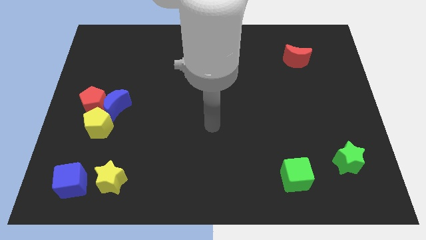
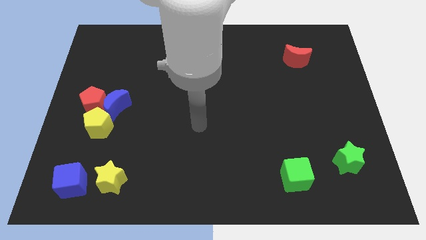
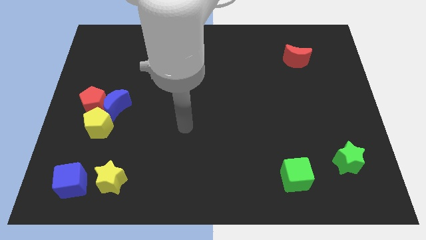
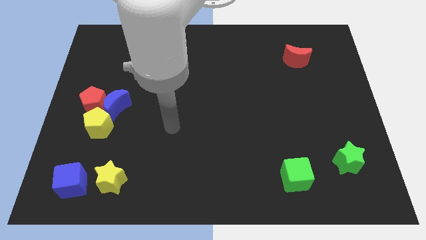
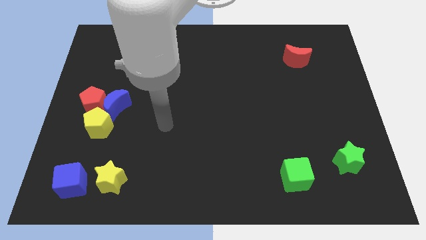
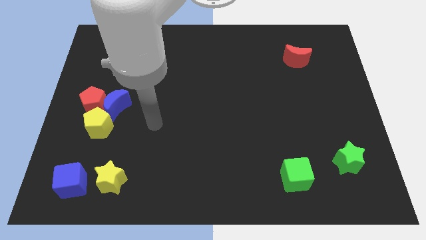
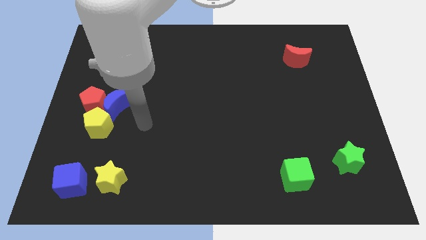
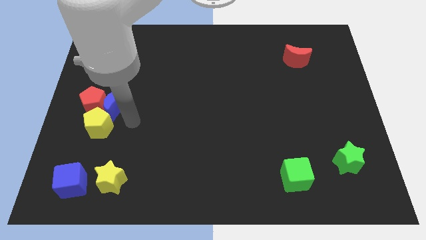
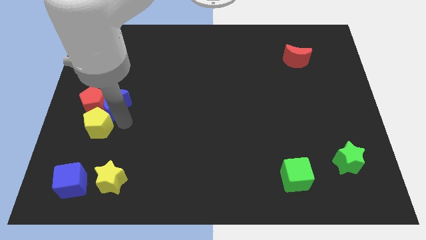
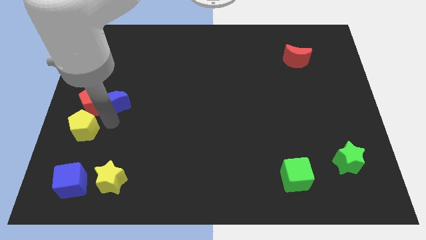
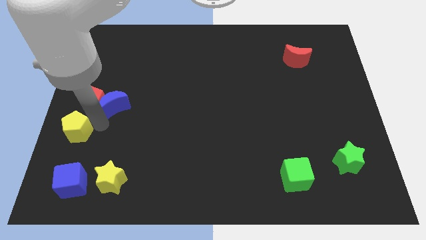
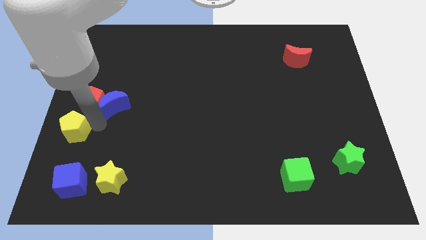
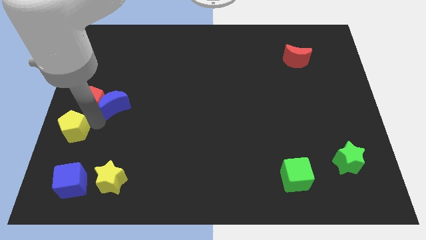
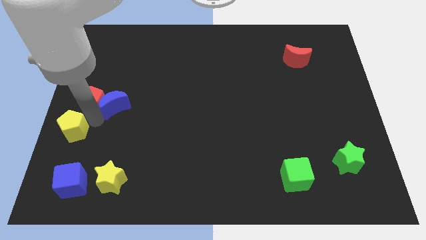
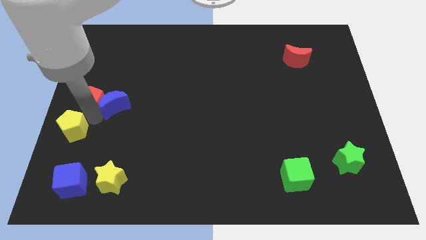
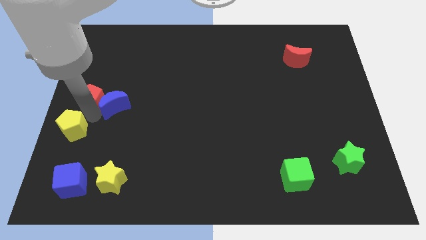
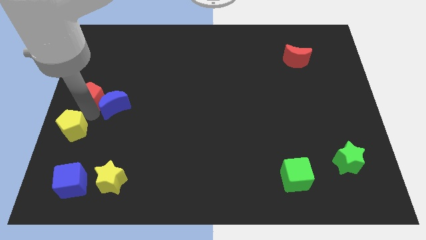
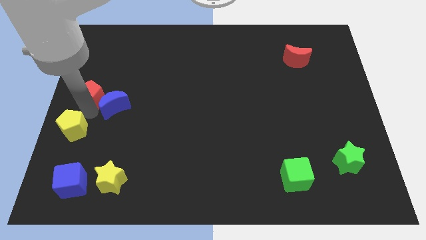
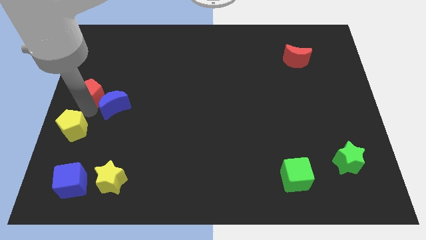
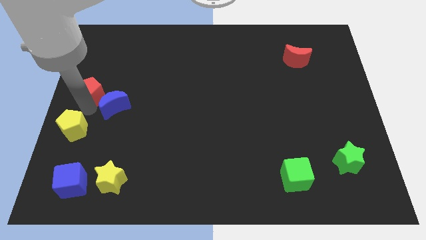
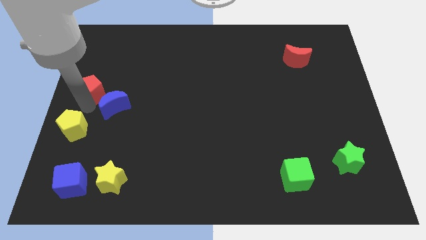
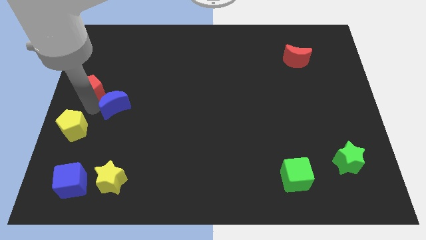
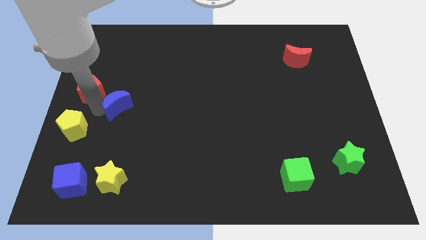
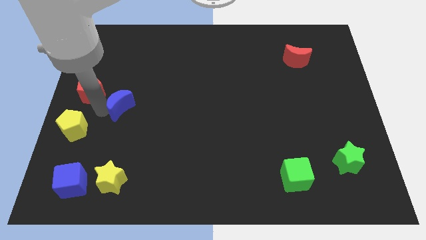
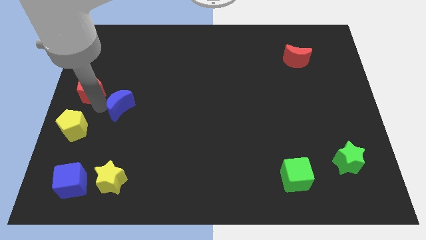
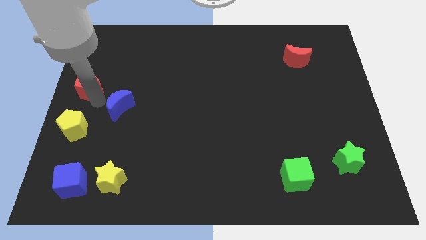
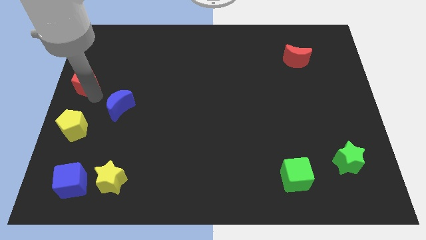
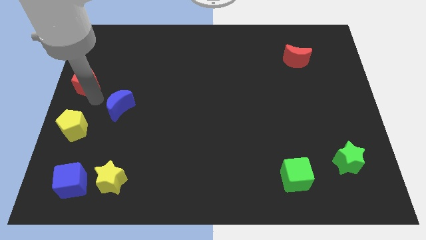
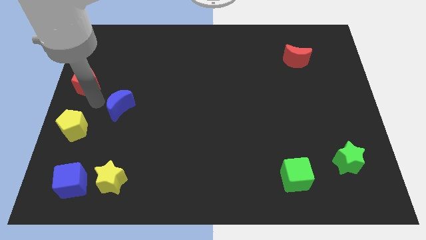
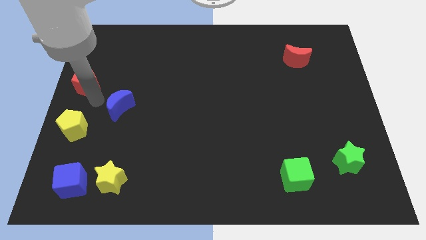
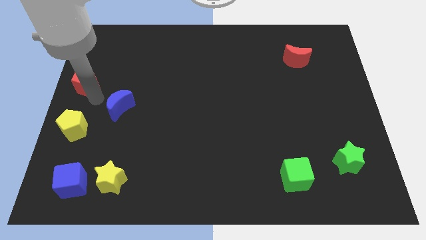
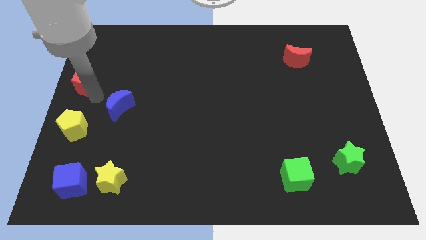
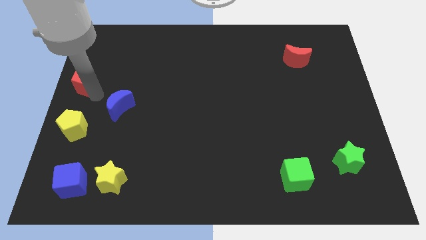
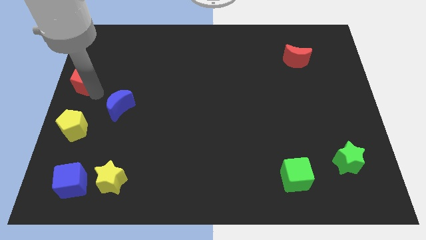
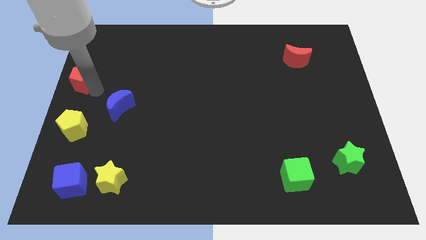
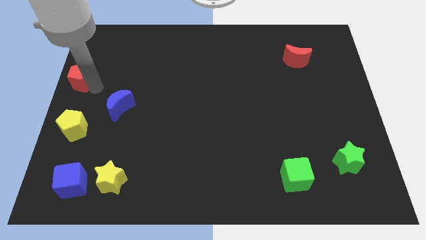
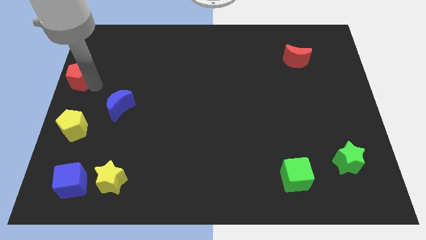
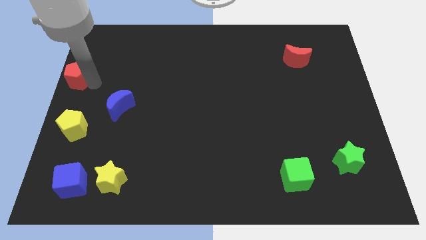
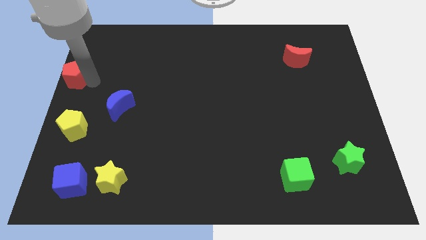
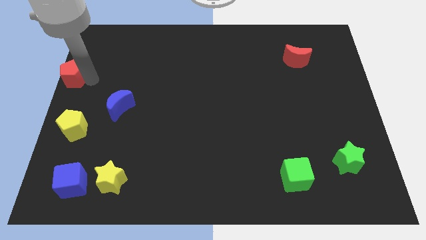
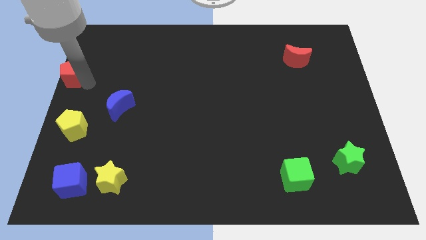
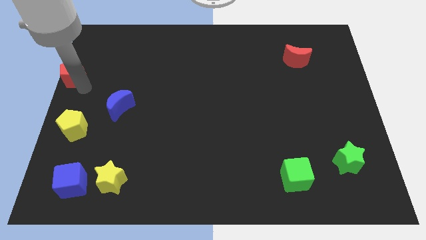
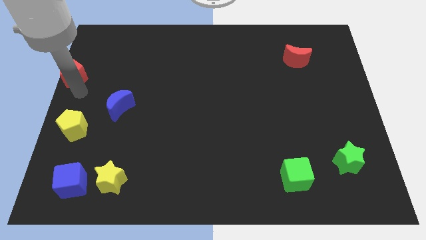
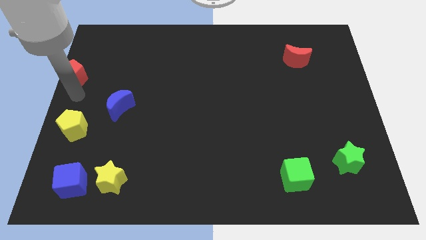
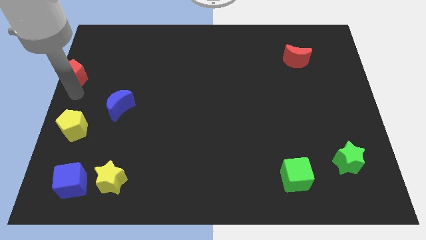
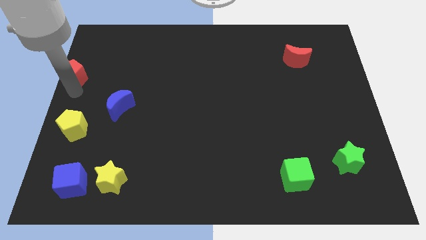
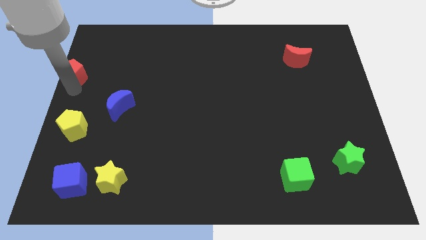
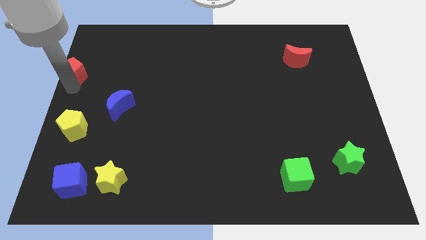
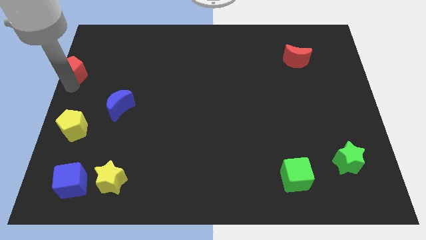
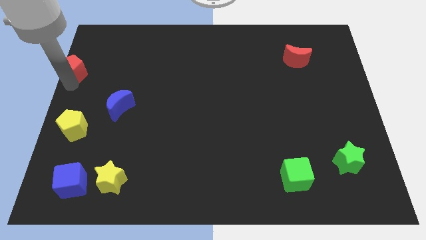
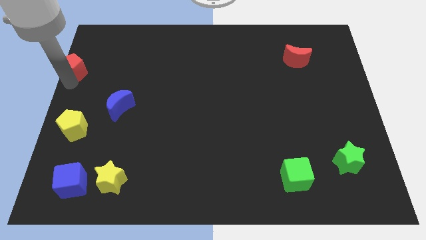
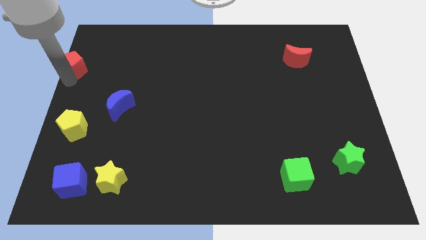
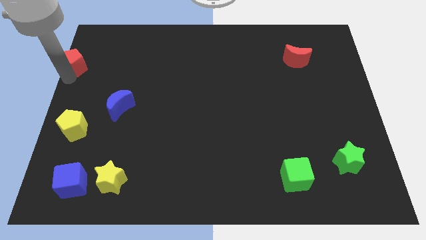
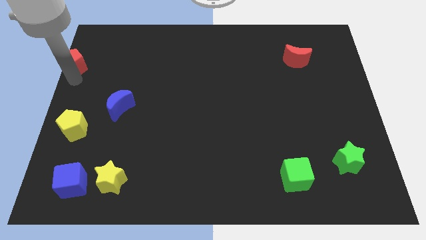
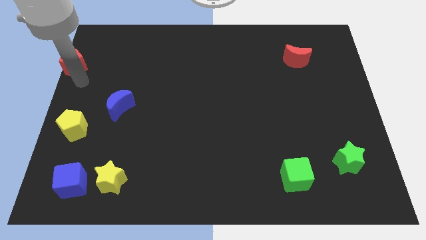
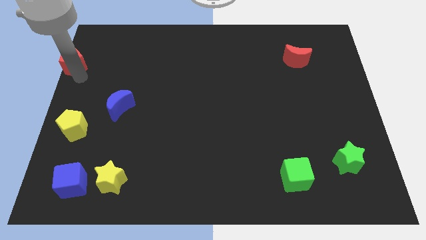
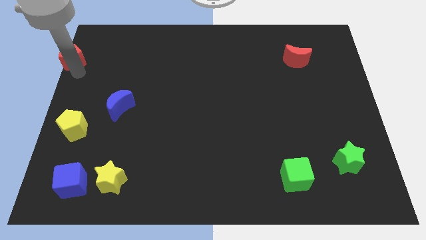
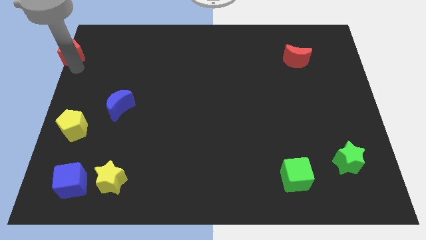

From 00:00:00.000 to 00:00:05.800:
push the red pentagon to the top left corner

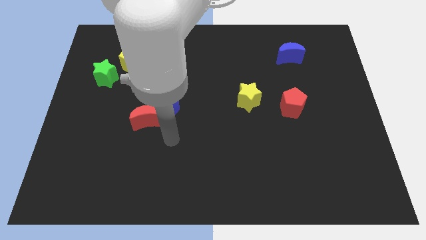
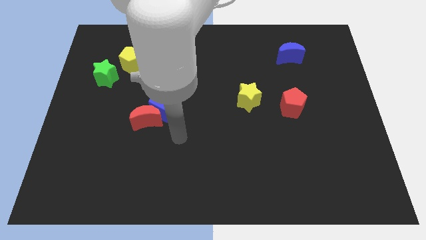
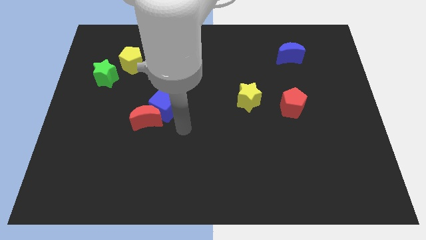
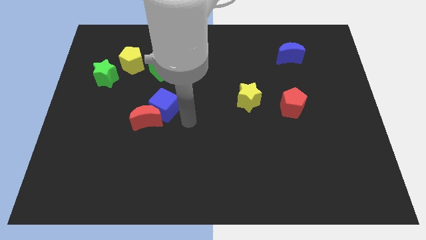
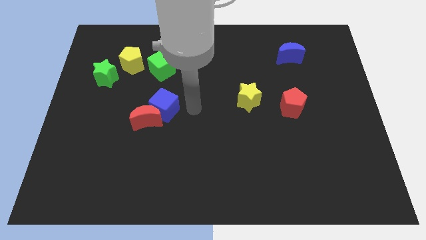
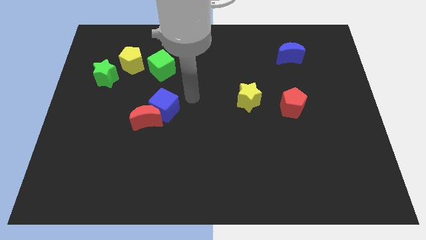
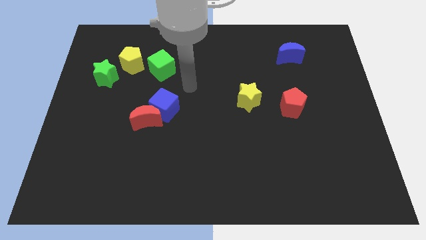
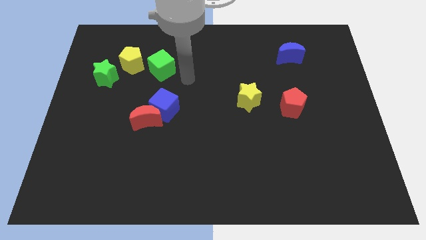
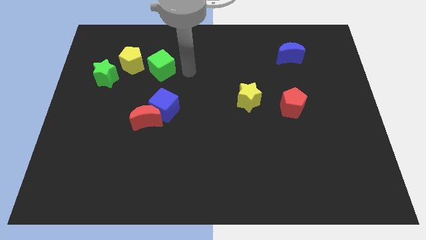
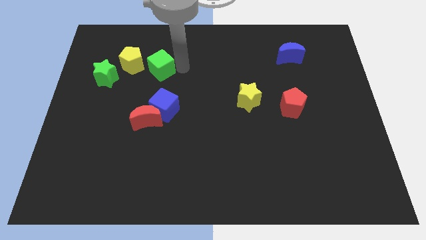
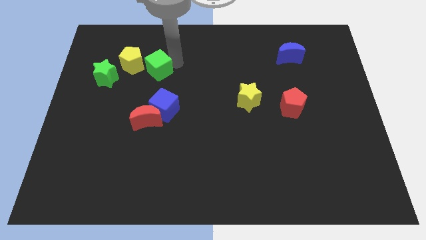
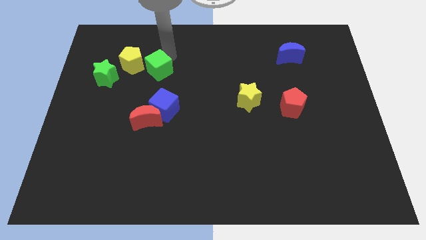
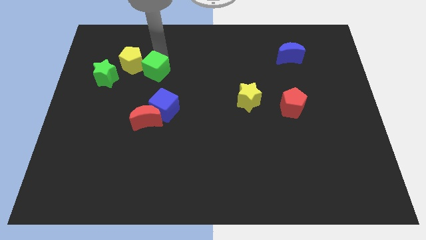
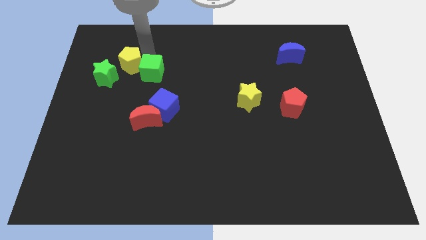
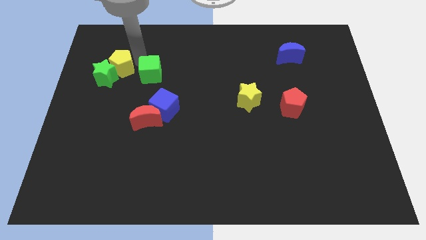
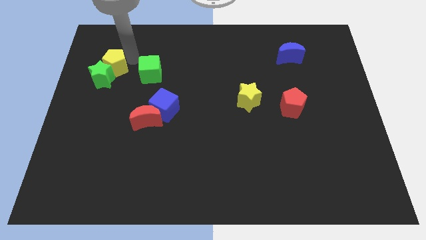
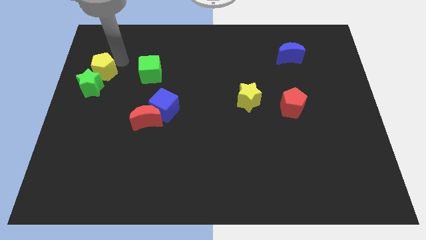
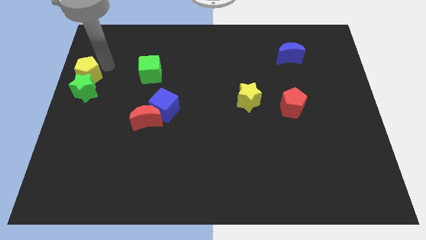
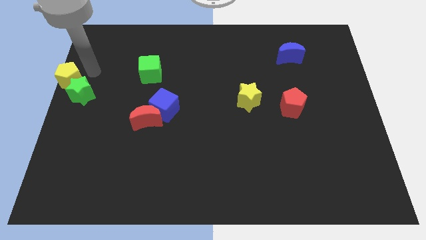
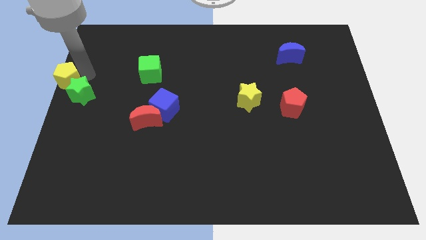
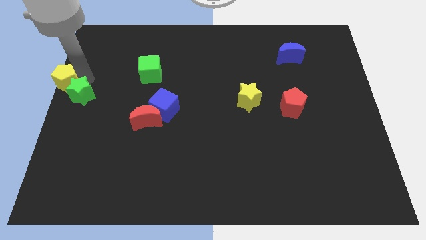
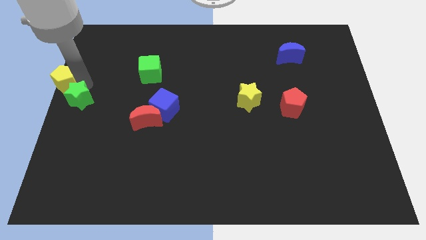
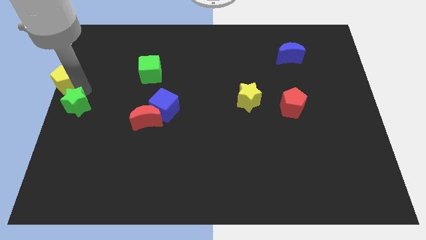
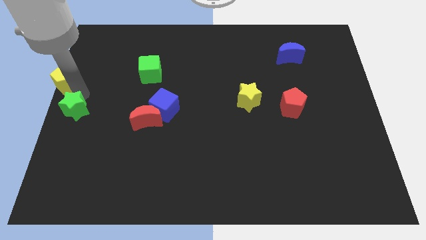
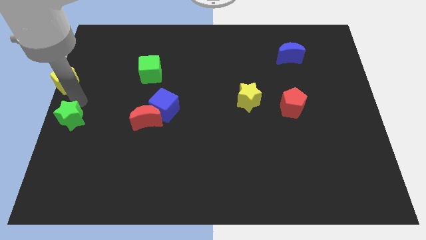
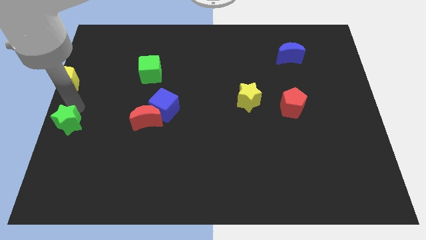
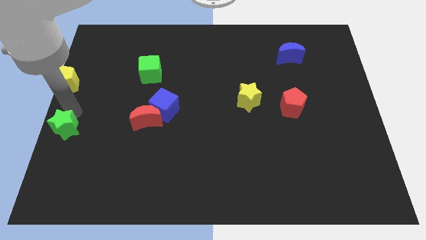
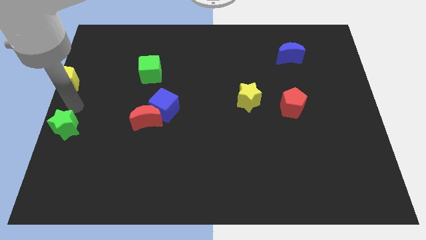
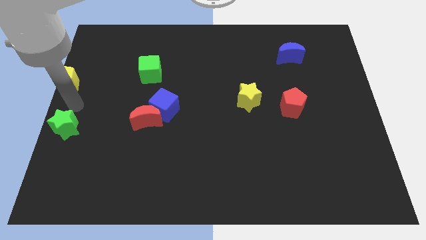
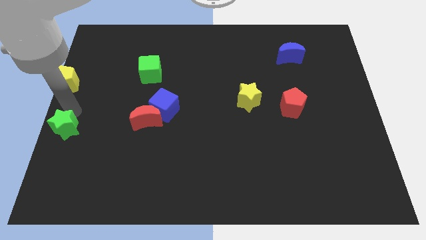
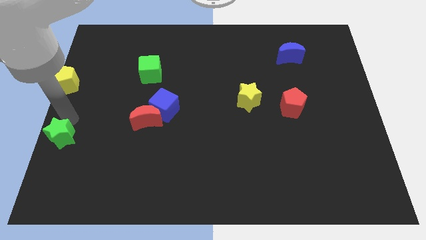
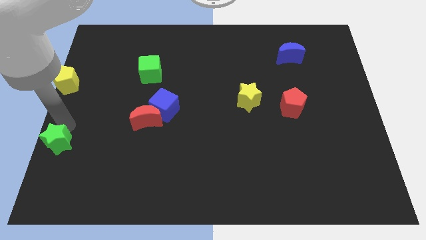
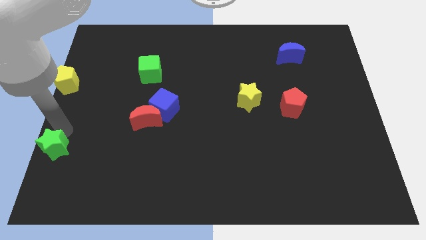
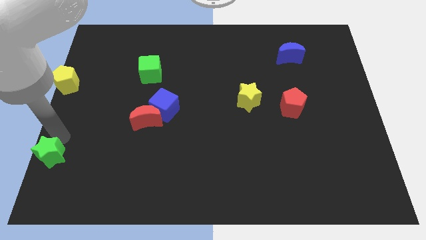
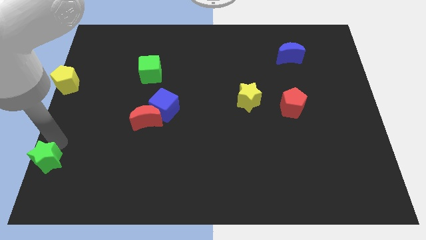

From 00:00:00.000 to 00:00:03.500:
push the green star to the bottom left of the board
